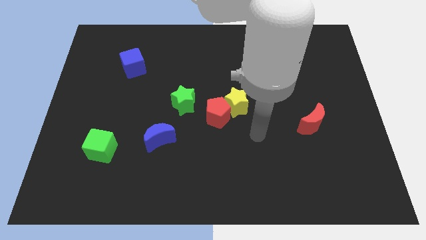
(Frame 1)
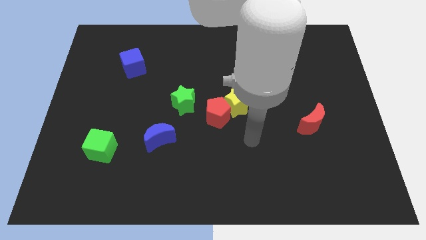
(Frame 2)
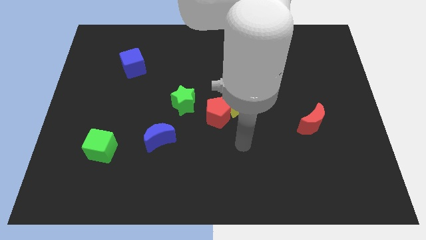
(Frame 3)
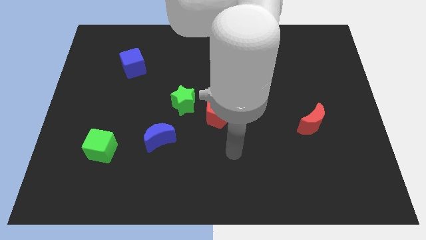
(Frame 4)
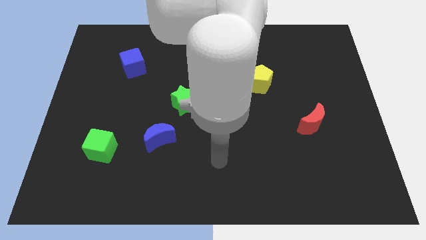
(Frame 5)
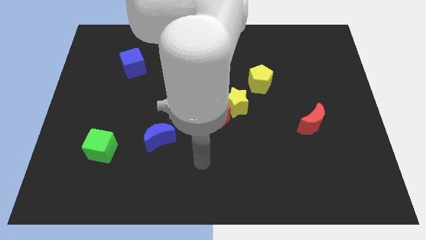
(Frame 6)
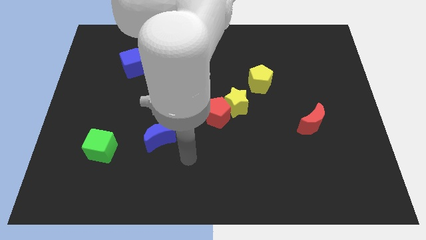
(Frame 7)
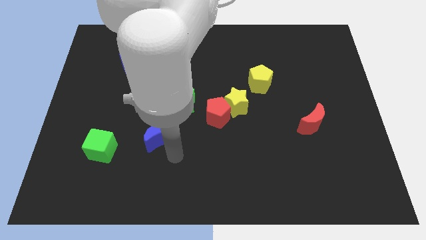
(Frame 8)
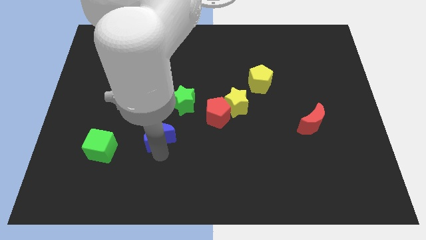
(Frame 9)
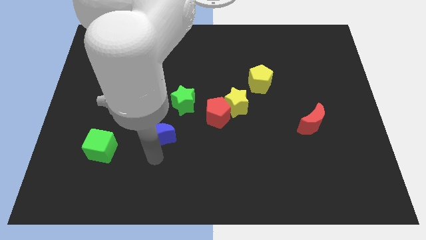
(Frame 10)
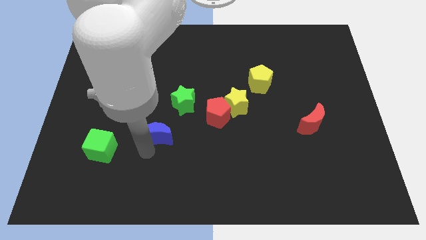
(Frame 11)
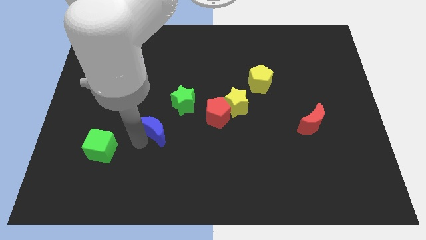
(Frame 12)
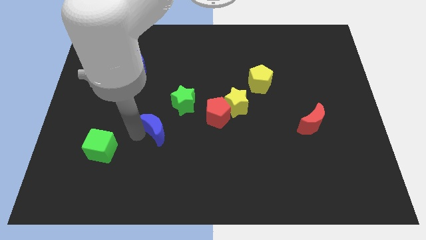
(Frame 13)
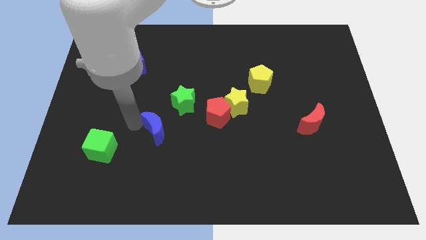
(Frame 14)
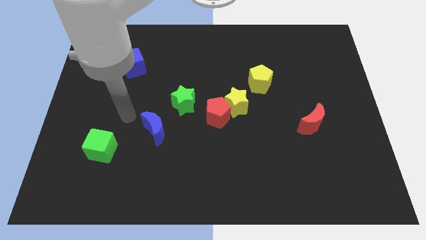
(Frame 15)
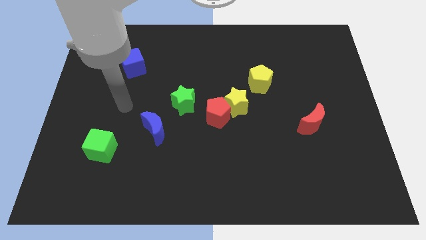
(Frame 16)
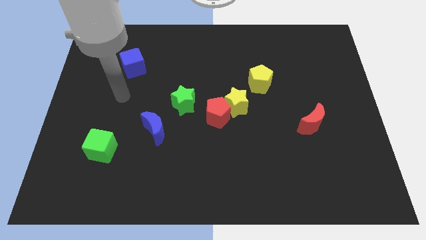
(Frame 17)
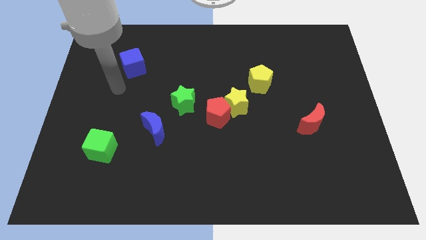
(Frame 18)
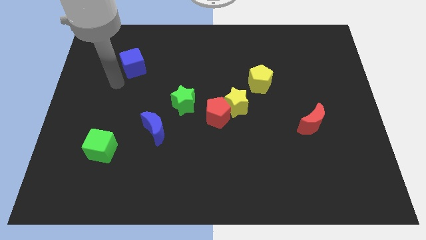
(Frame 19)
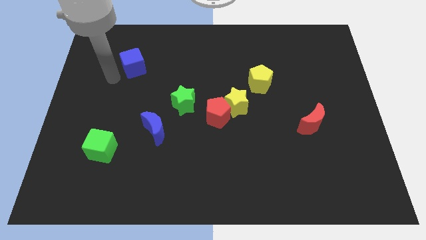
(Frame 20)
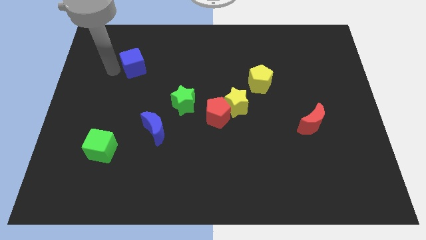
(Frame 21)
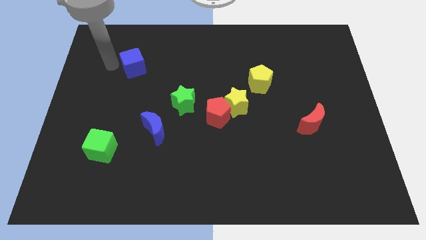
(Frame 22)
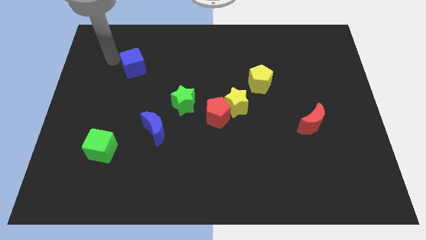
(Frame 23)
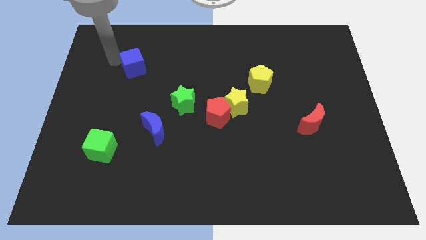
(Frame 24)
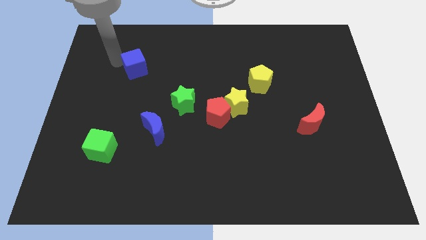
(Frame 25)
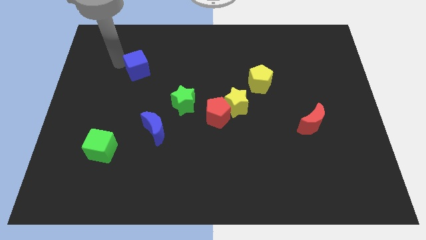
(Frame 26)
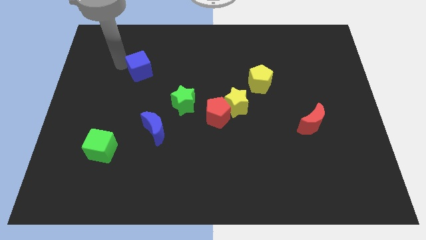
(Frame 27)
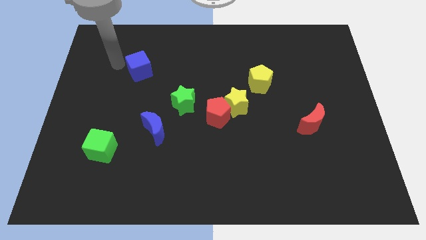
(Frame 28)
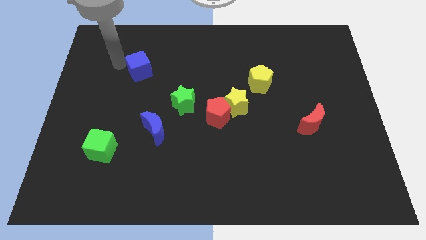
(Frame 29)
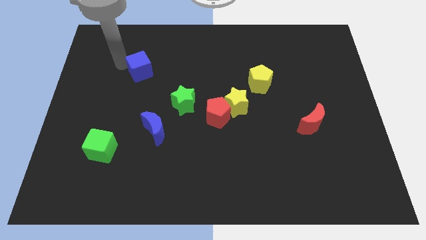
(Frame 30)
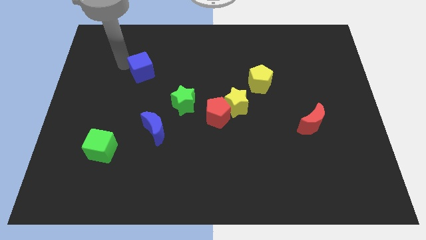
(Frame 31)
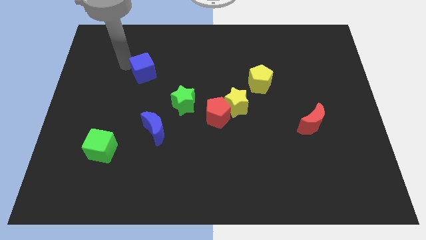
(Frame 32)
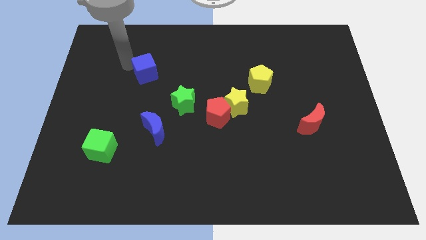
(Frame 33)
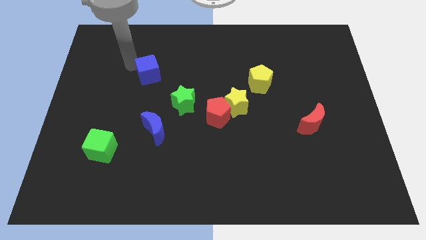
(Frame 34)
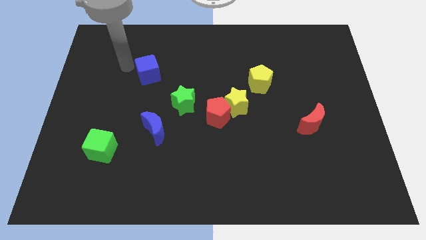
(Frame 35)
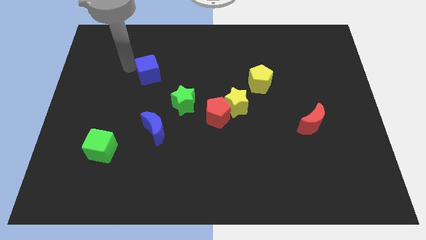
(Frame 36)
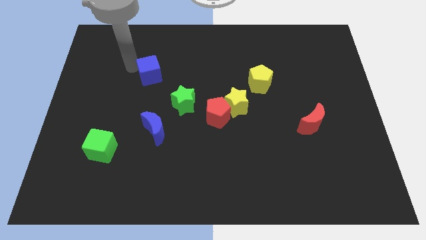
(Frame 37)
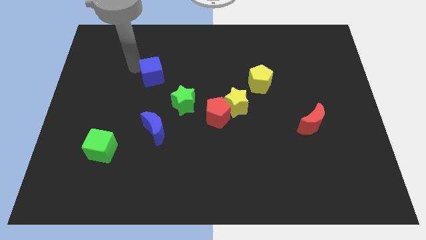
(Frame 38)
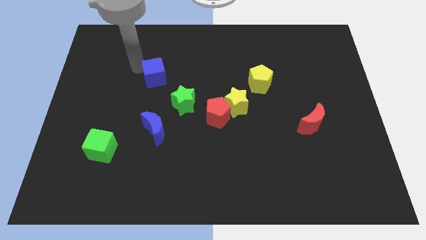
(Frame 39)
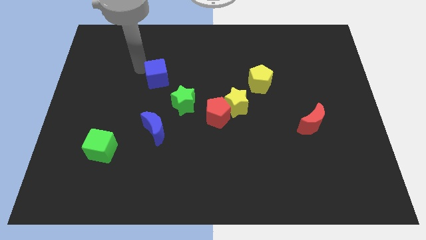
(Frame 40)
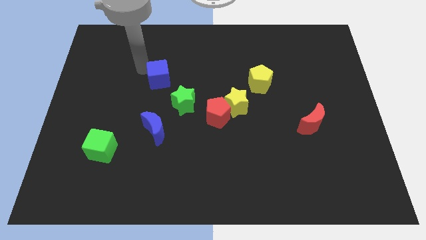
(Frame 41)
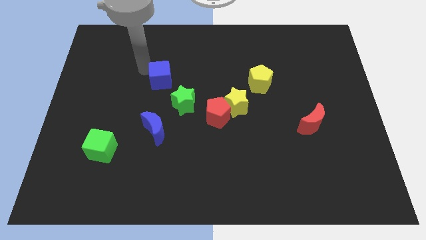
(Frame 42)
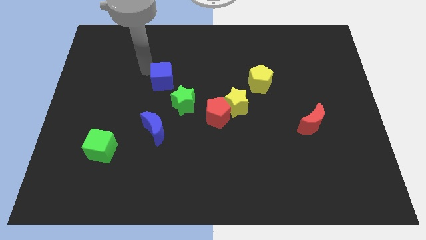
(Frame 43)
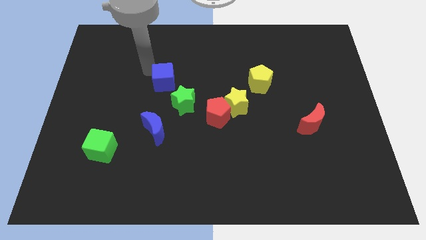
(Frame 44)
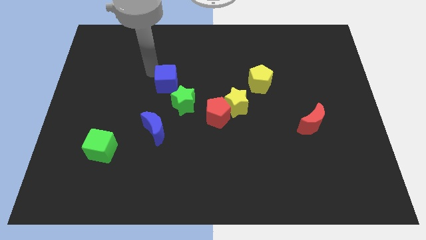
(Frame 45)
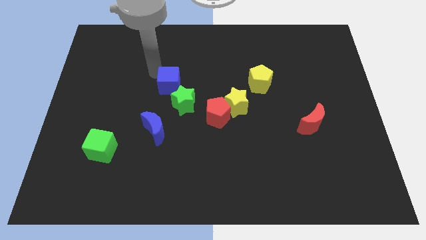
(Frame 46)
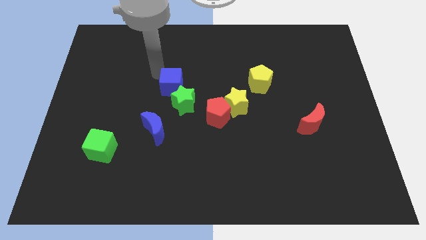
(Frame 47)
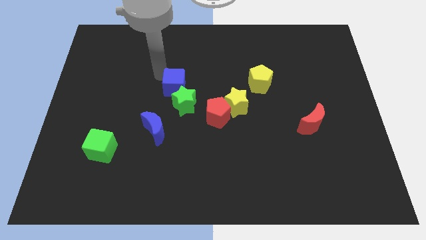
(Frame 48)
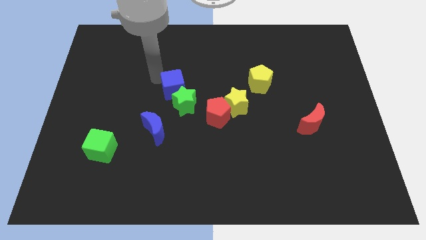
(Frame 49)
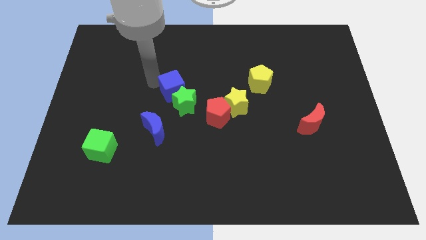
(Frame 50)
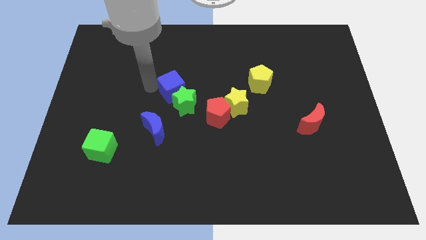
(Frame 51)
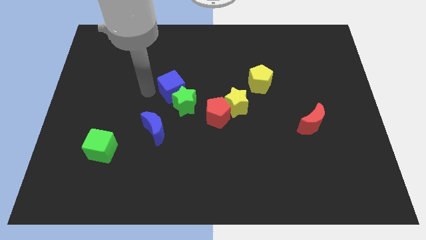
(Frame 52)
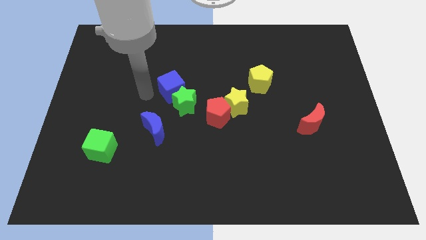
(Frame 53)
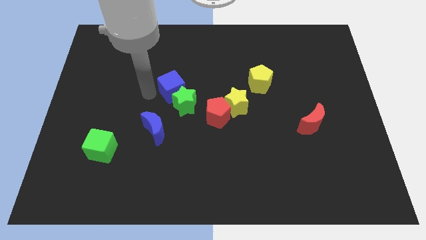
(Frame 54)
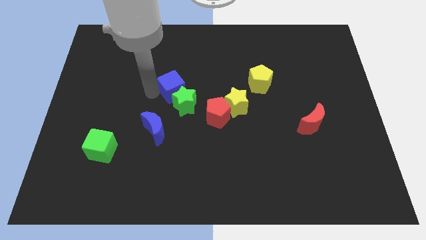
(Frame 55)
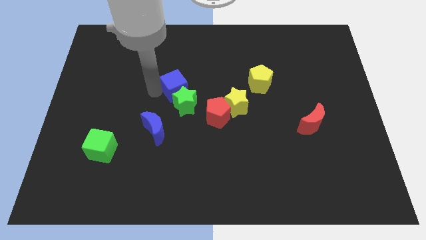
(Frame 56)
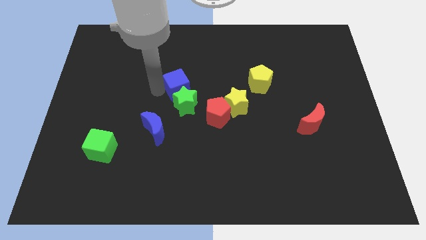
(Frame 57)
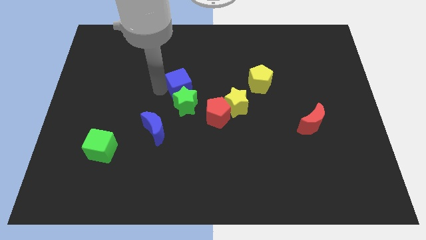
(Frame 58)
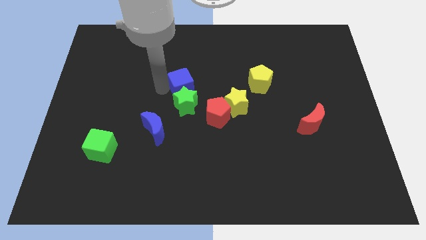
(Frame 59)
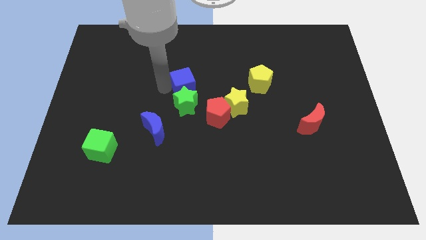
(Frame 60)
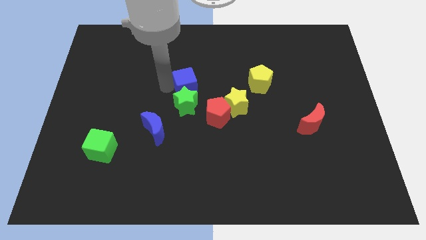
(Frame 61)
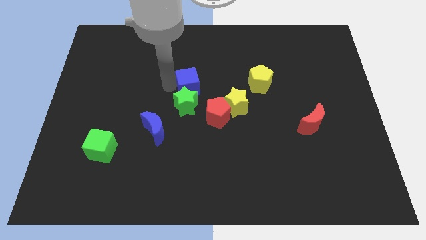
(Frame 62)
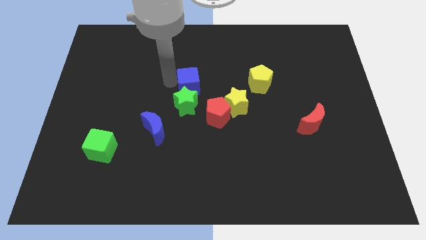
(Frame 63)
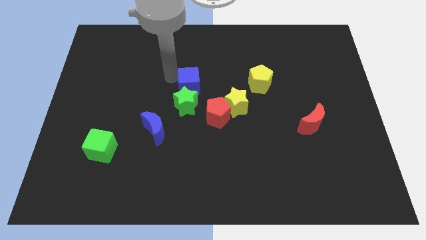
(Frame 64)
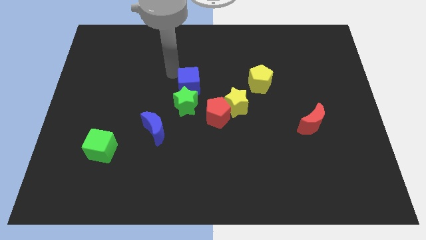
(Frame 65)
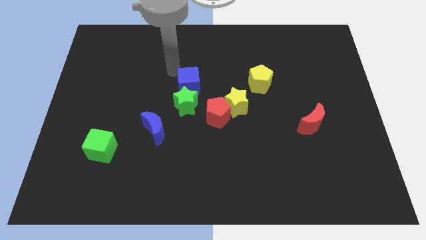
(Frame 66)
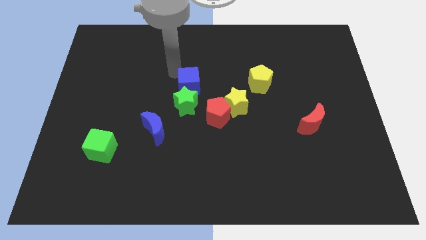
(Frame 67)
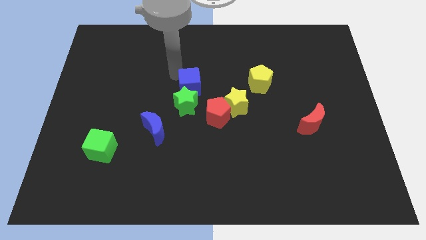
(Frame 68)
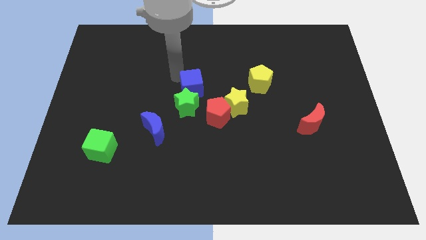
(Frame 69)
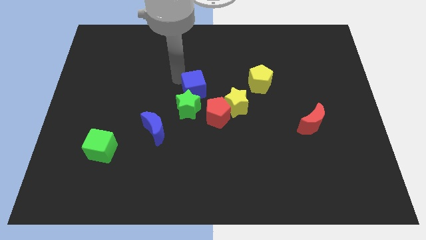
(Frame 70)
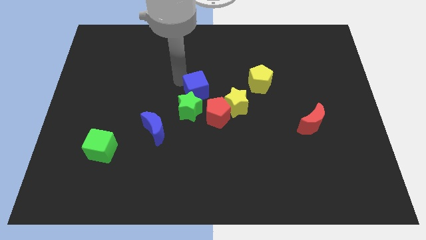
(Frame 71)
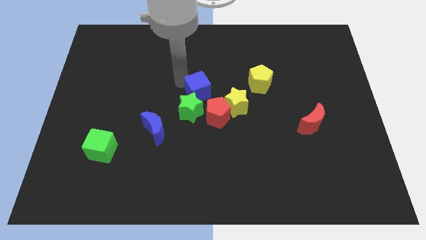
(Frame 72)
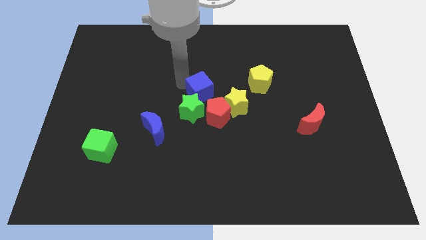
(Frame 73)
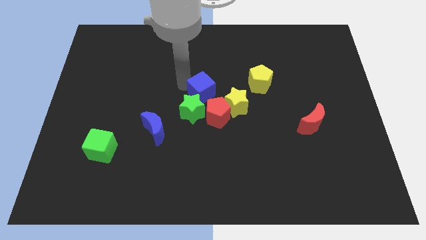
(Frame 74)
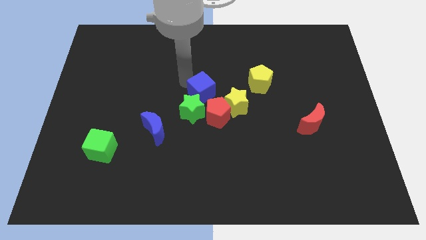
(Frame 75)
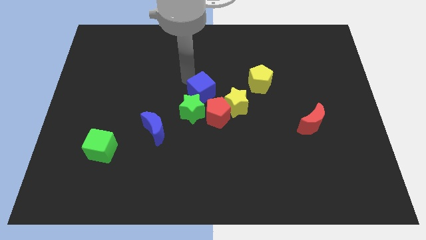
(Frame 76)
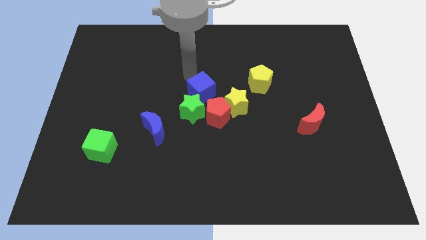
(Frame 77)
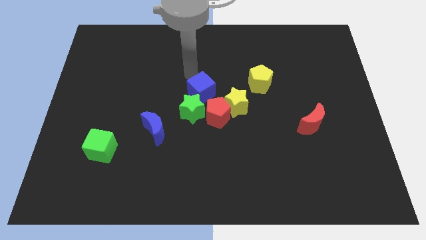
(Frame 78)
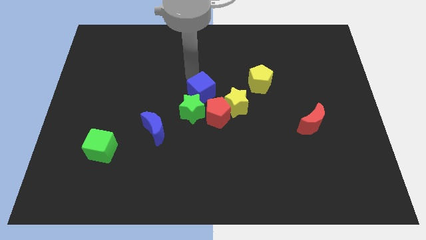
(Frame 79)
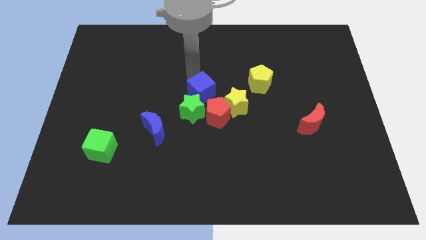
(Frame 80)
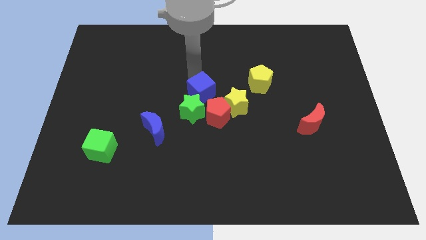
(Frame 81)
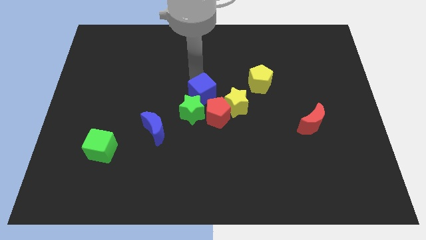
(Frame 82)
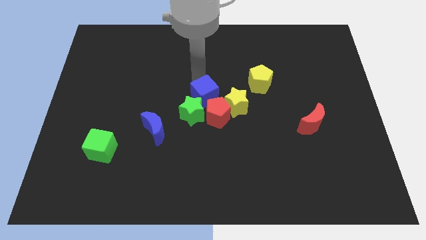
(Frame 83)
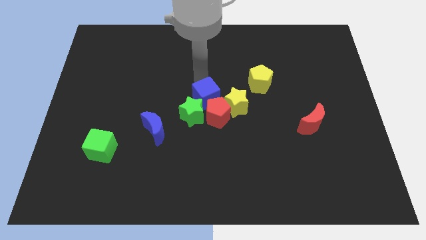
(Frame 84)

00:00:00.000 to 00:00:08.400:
put the blue cube towards the red pentagon
